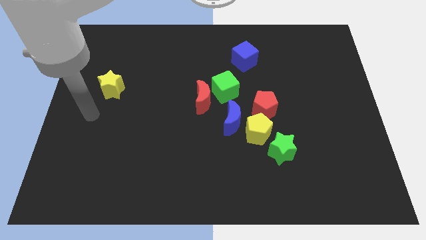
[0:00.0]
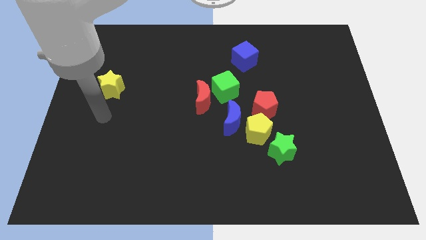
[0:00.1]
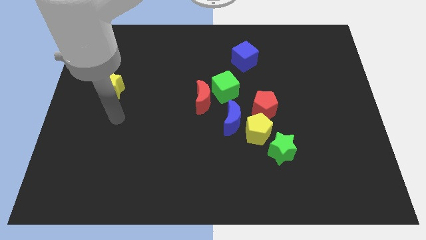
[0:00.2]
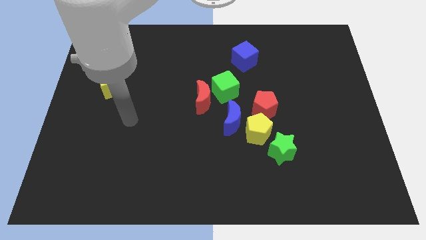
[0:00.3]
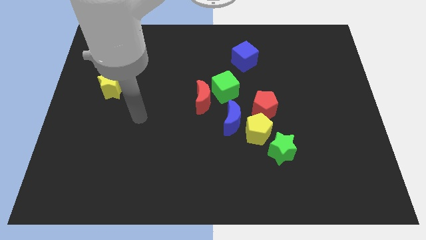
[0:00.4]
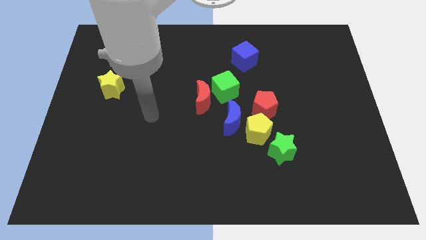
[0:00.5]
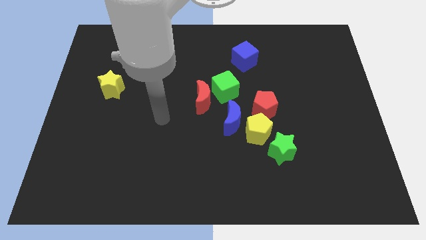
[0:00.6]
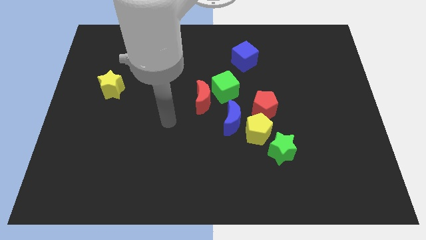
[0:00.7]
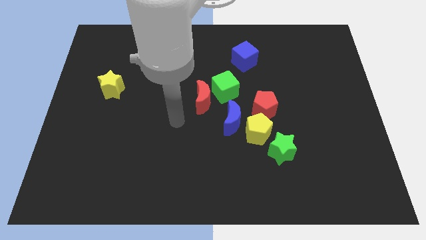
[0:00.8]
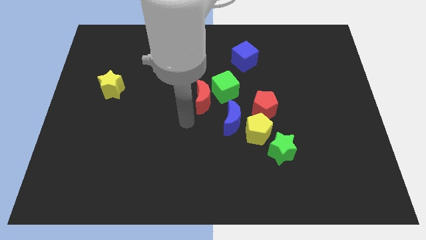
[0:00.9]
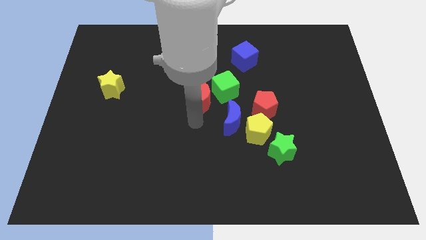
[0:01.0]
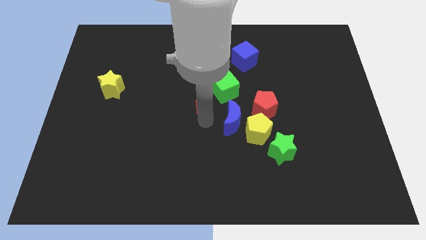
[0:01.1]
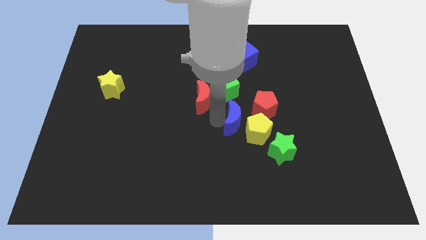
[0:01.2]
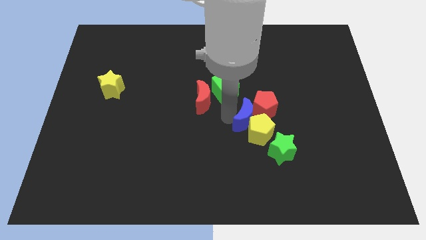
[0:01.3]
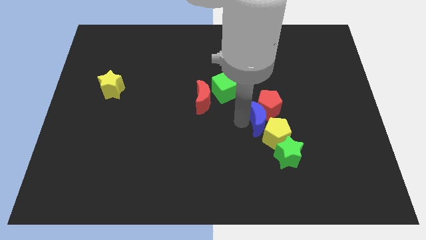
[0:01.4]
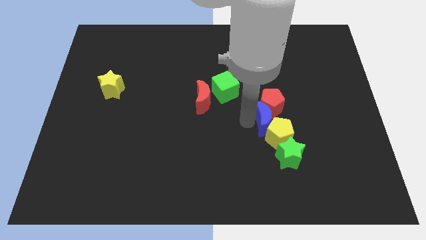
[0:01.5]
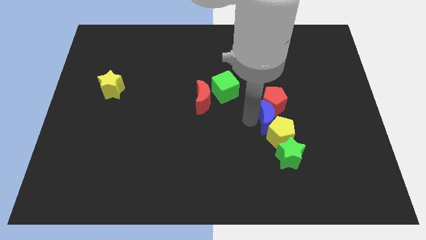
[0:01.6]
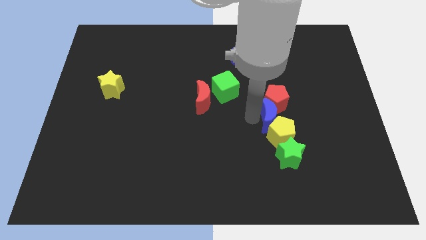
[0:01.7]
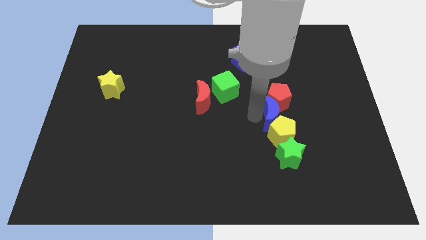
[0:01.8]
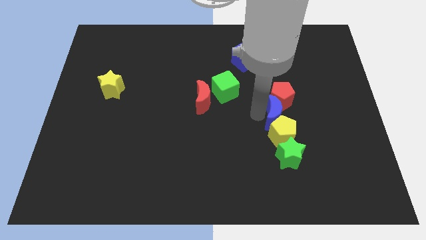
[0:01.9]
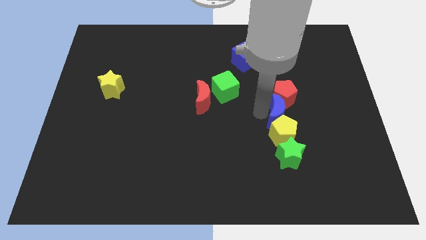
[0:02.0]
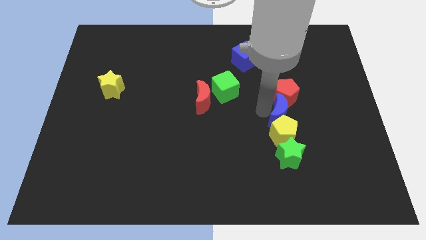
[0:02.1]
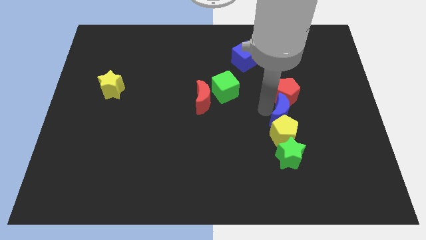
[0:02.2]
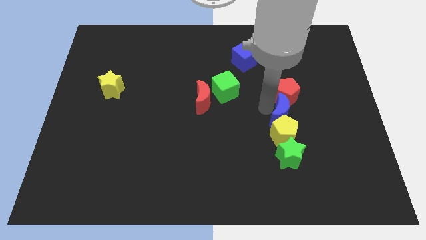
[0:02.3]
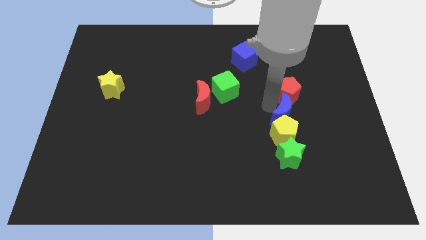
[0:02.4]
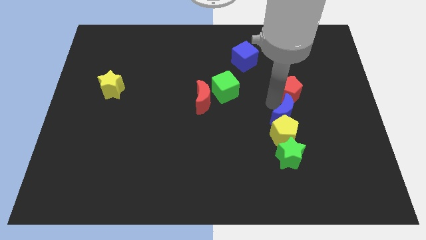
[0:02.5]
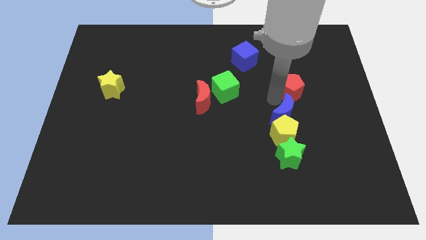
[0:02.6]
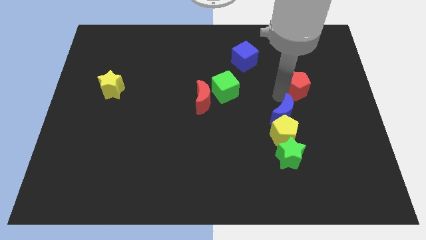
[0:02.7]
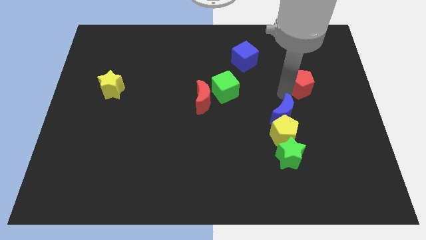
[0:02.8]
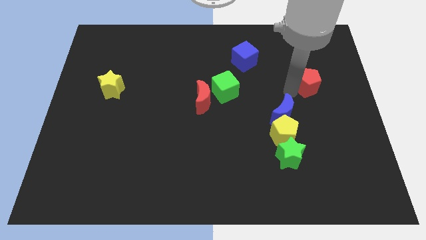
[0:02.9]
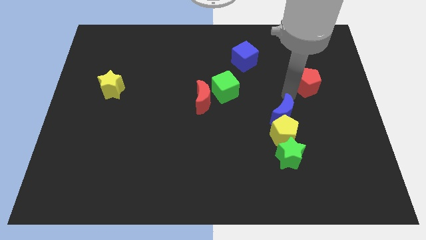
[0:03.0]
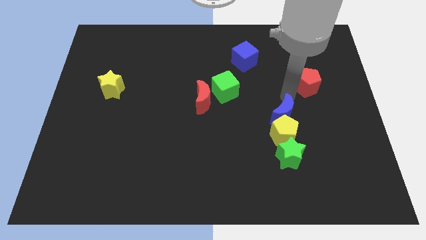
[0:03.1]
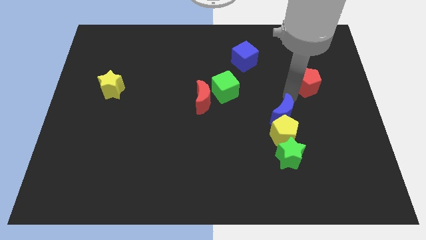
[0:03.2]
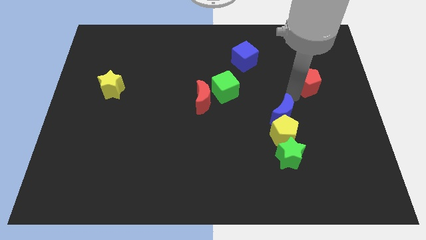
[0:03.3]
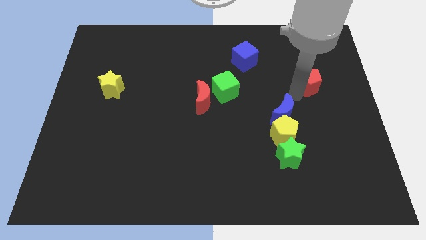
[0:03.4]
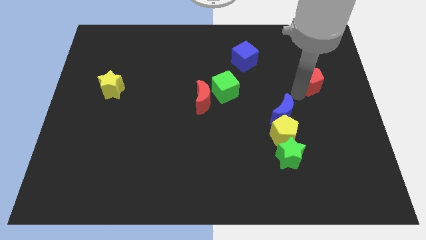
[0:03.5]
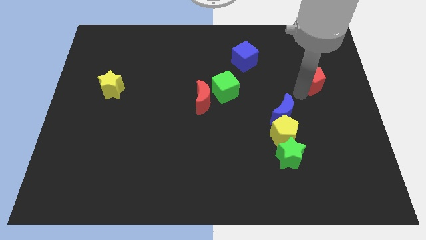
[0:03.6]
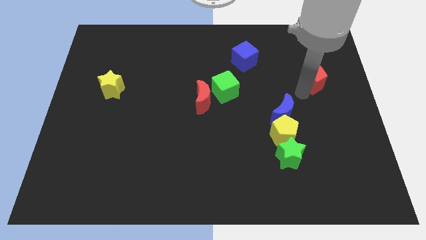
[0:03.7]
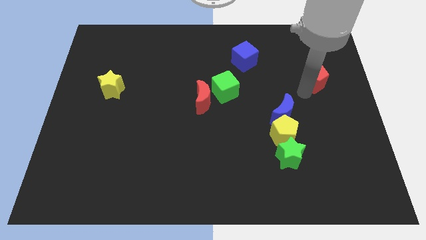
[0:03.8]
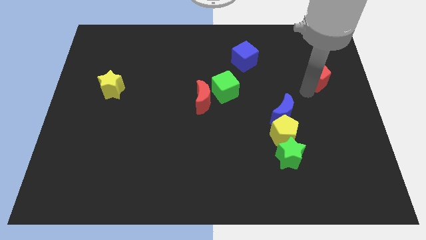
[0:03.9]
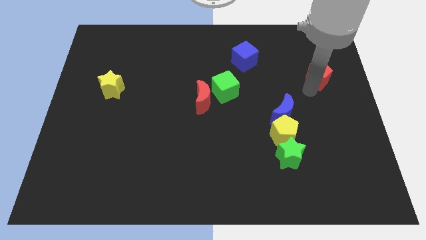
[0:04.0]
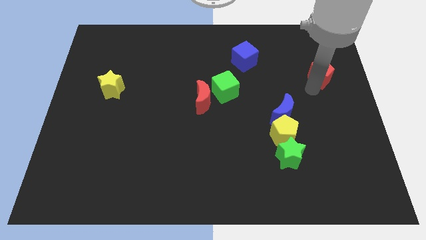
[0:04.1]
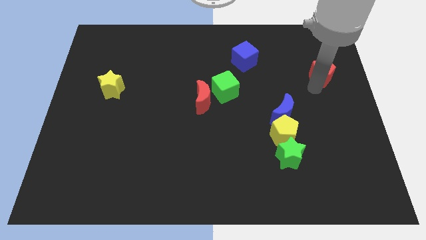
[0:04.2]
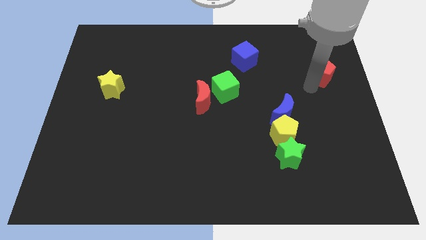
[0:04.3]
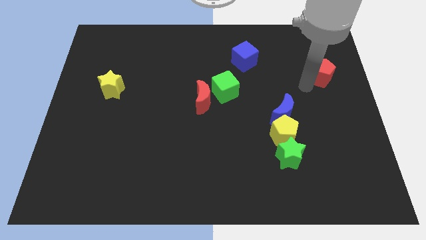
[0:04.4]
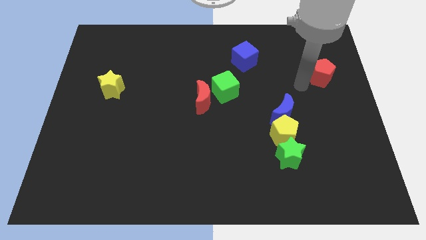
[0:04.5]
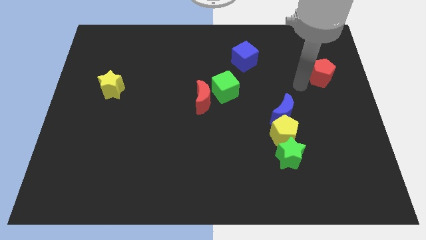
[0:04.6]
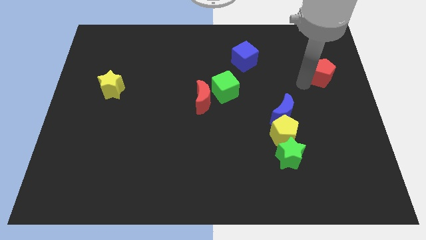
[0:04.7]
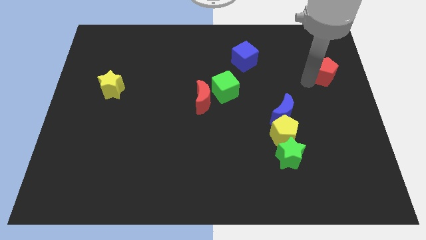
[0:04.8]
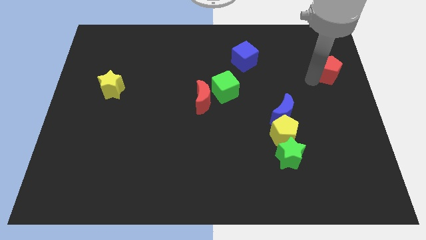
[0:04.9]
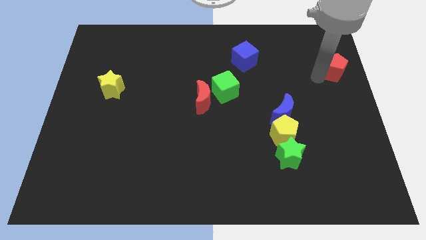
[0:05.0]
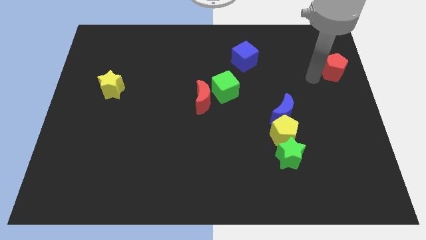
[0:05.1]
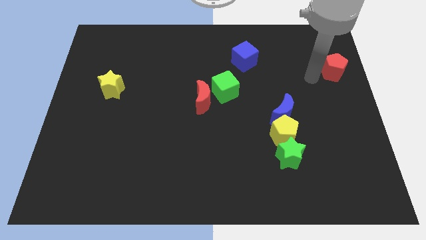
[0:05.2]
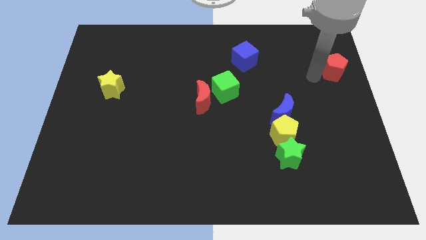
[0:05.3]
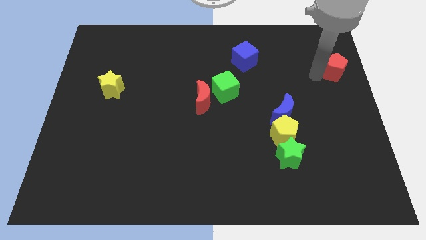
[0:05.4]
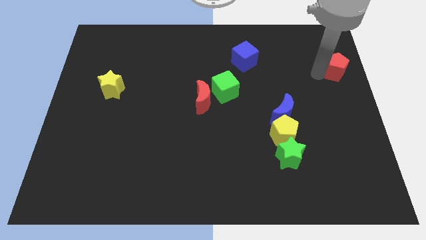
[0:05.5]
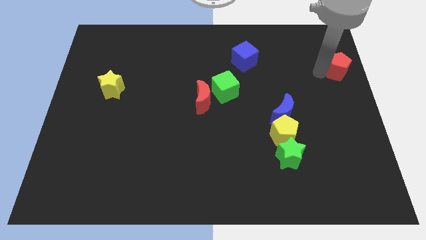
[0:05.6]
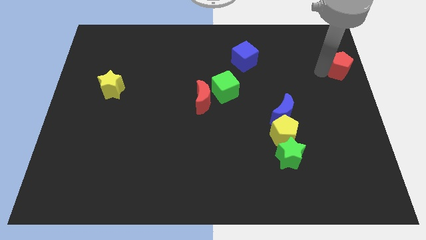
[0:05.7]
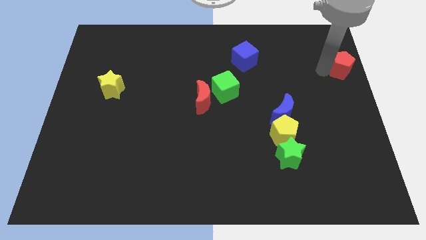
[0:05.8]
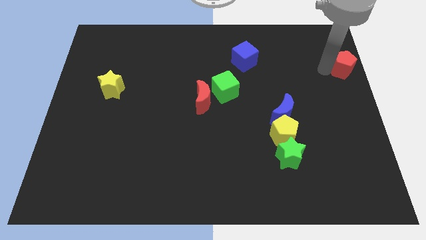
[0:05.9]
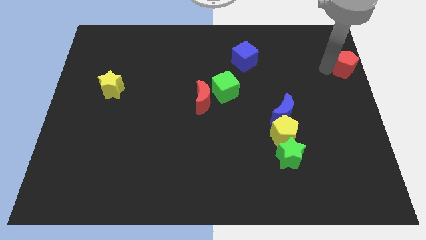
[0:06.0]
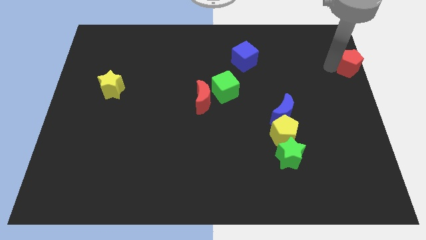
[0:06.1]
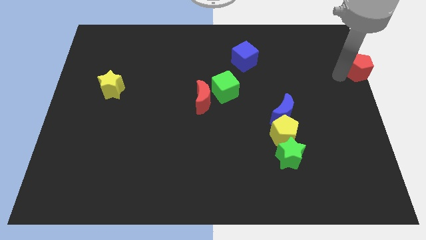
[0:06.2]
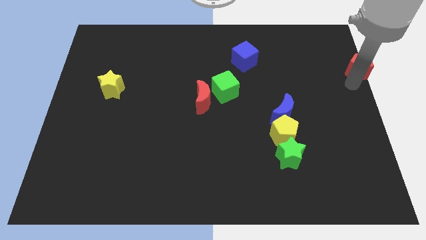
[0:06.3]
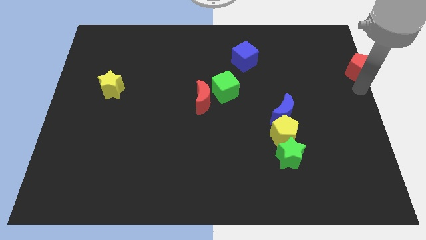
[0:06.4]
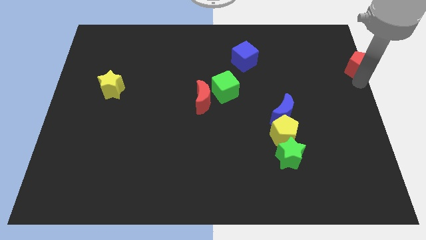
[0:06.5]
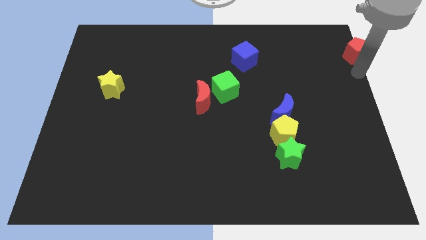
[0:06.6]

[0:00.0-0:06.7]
move the red pentagon to the top right of the board

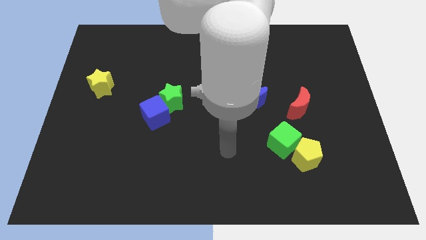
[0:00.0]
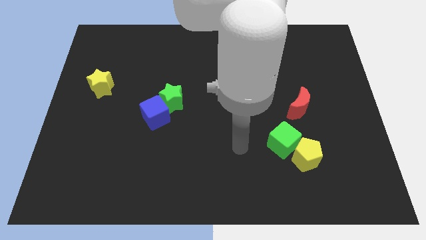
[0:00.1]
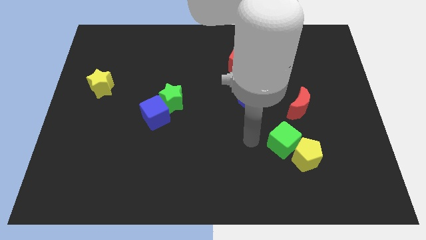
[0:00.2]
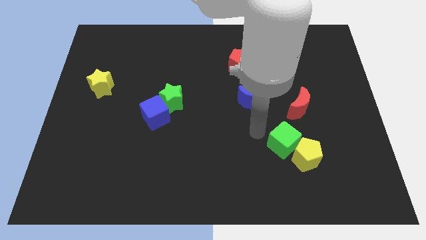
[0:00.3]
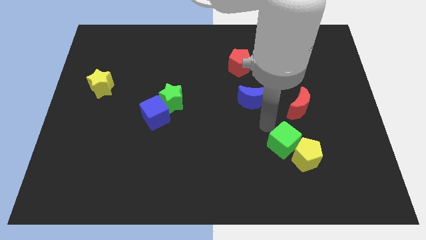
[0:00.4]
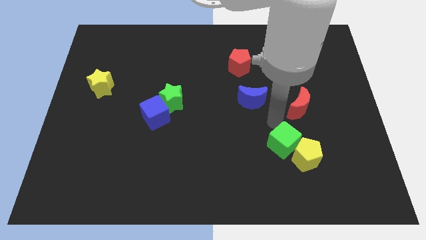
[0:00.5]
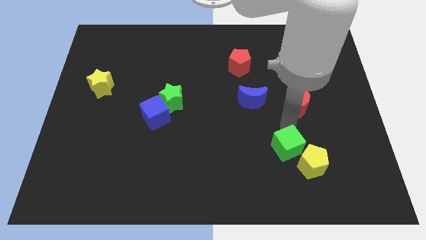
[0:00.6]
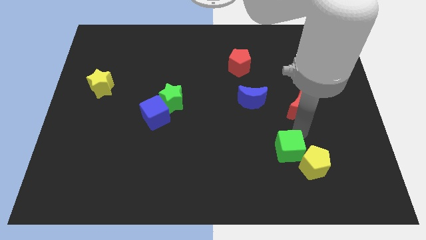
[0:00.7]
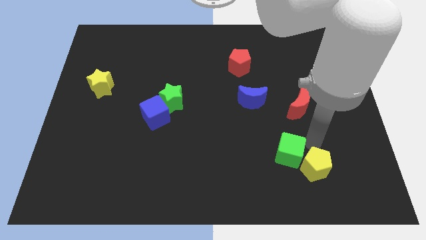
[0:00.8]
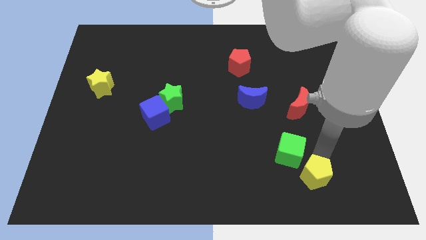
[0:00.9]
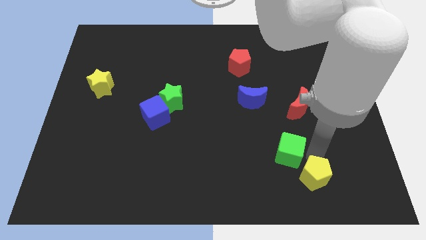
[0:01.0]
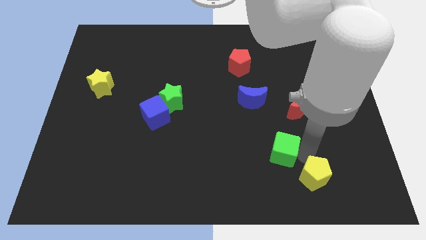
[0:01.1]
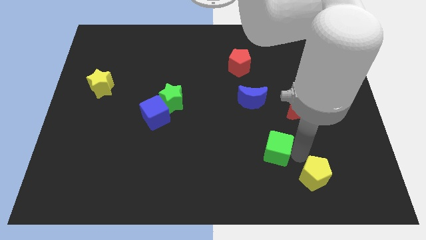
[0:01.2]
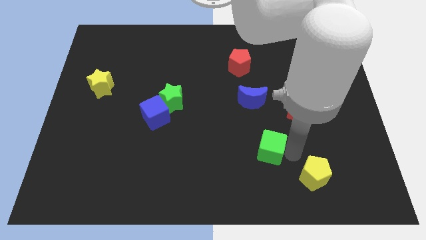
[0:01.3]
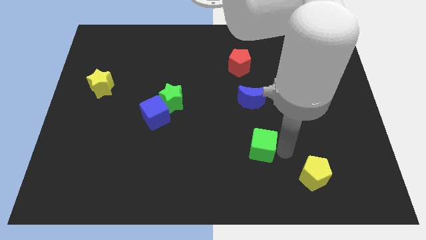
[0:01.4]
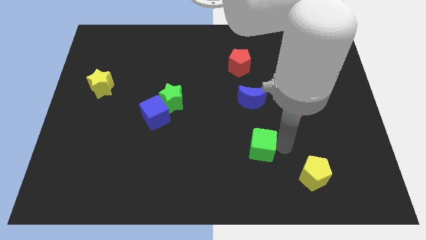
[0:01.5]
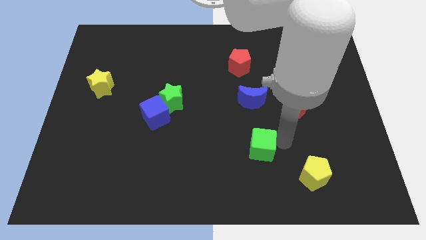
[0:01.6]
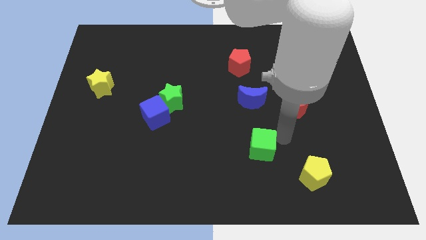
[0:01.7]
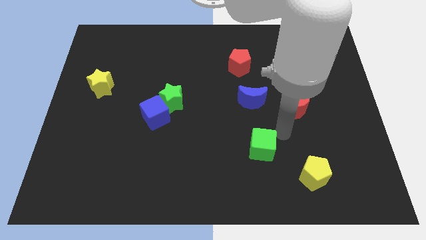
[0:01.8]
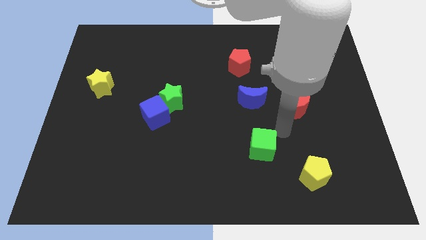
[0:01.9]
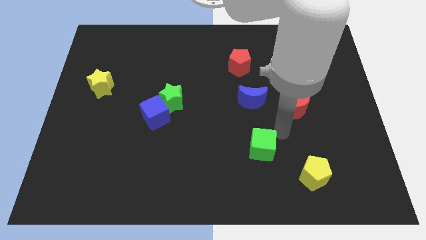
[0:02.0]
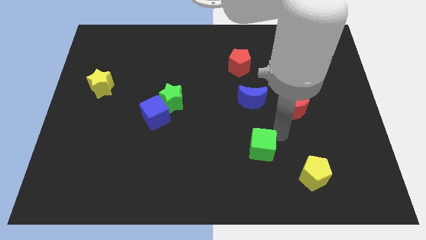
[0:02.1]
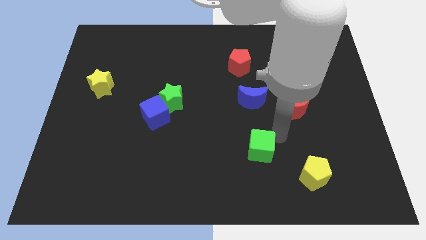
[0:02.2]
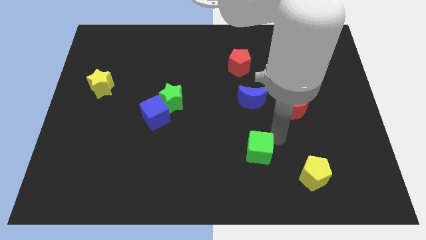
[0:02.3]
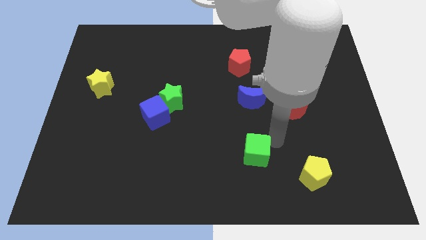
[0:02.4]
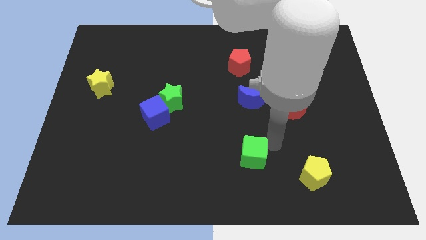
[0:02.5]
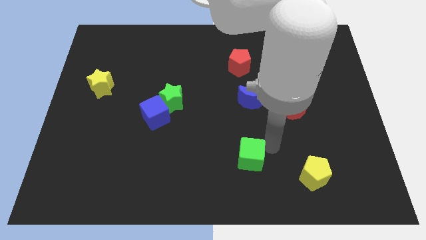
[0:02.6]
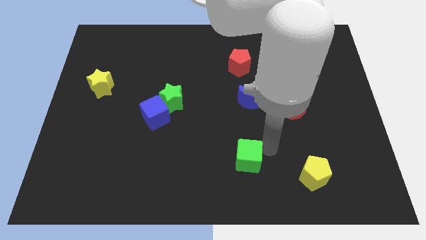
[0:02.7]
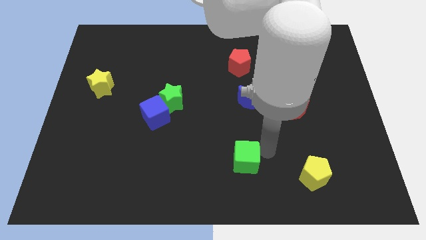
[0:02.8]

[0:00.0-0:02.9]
slide the green cube to the bottom side
